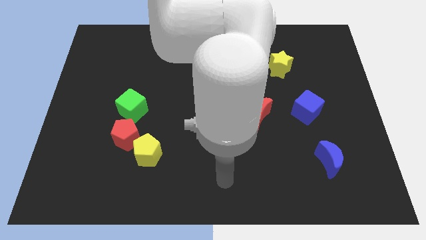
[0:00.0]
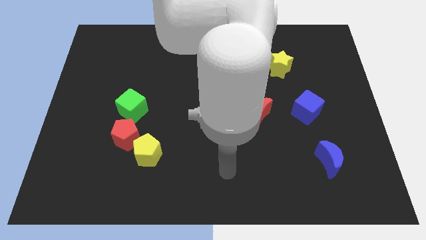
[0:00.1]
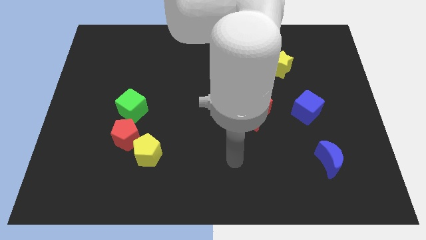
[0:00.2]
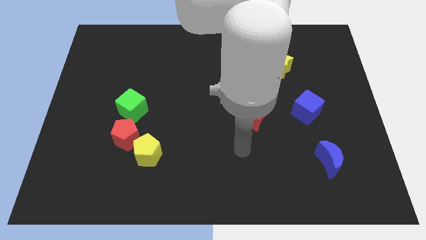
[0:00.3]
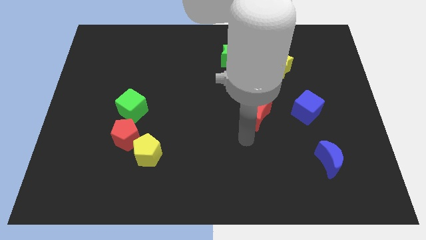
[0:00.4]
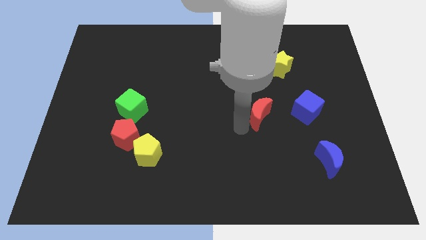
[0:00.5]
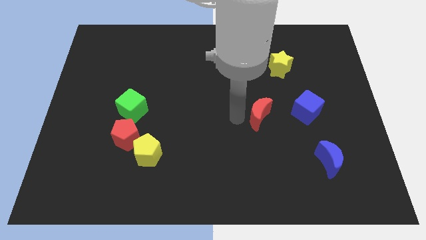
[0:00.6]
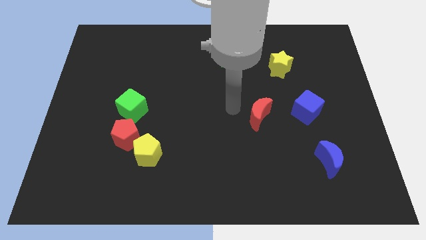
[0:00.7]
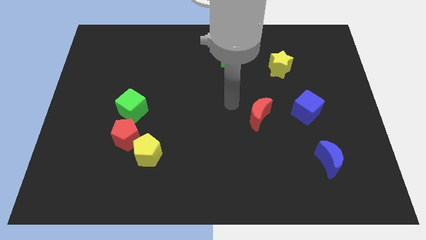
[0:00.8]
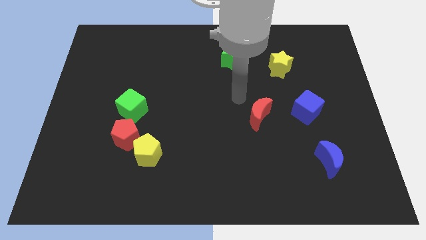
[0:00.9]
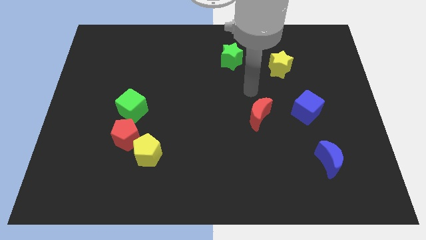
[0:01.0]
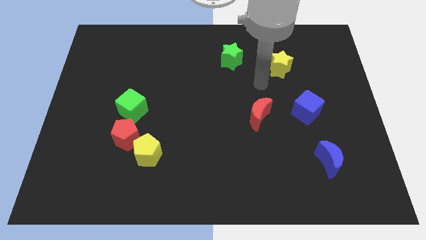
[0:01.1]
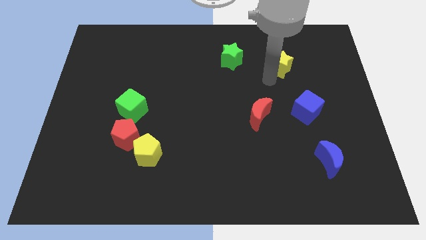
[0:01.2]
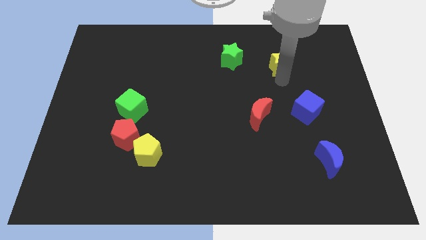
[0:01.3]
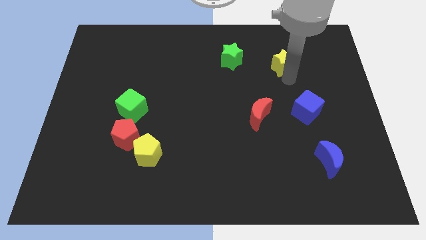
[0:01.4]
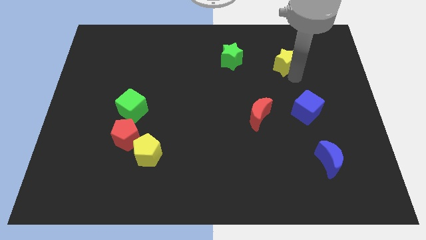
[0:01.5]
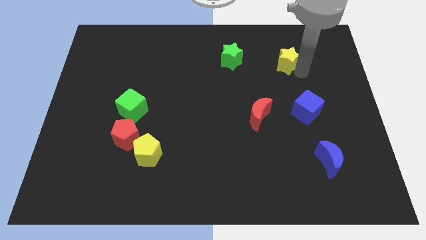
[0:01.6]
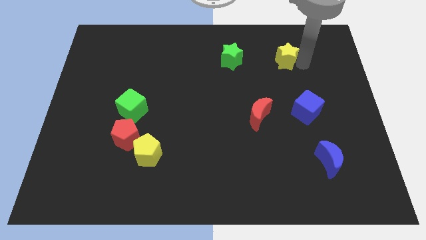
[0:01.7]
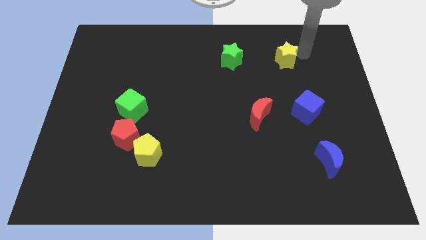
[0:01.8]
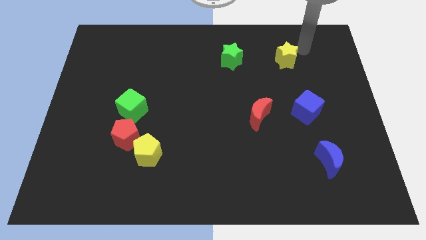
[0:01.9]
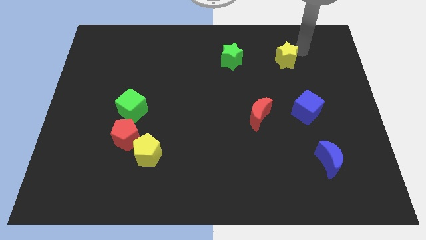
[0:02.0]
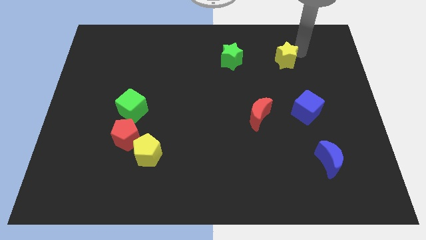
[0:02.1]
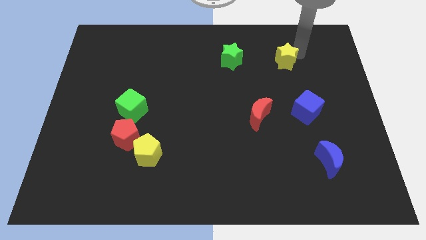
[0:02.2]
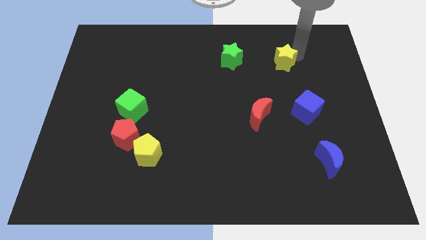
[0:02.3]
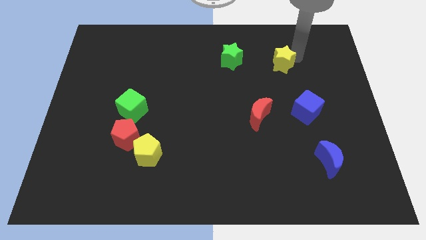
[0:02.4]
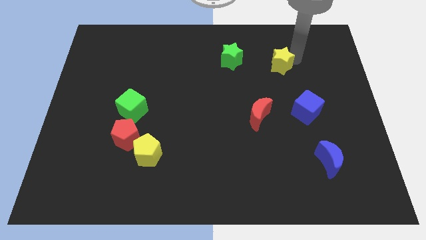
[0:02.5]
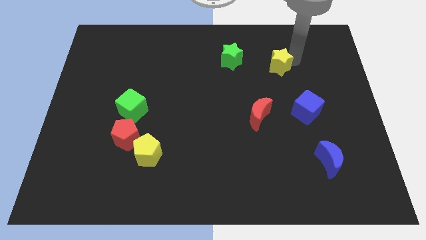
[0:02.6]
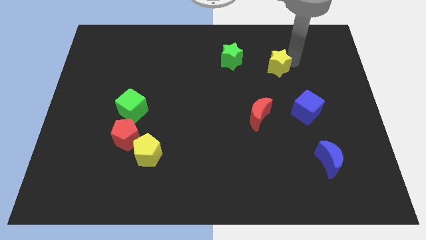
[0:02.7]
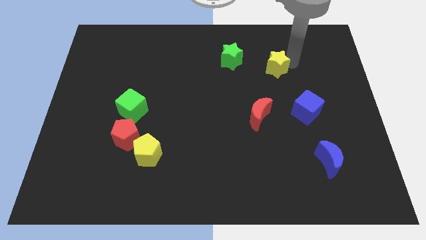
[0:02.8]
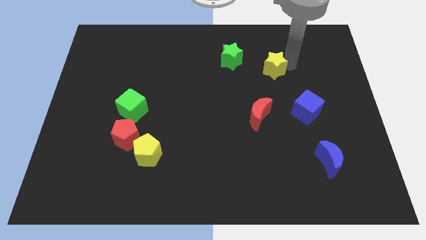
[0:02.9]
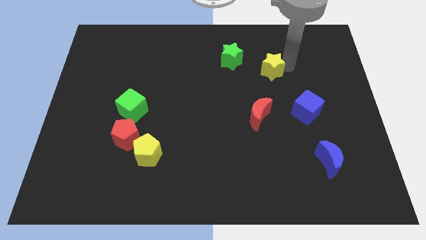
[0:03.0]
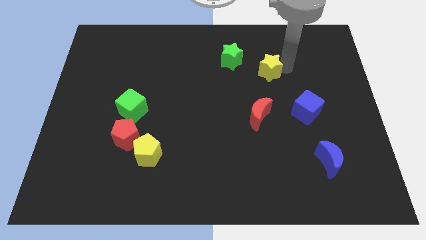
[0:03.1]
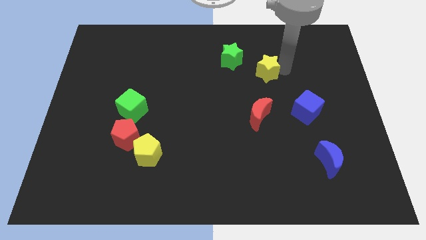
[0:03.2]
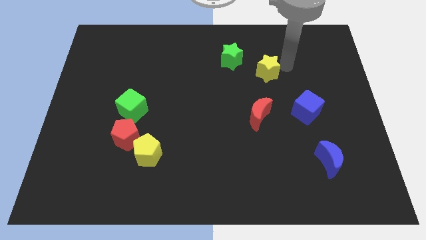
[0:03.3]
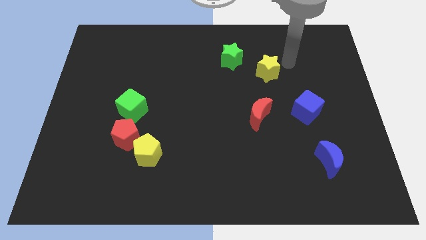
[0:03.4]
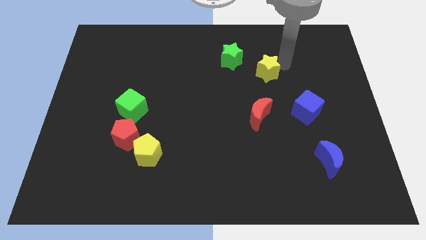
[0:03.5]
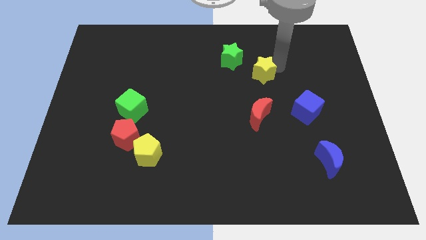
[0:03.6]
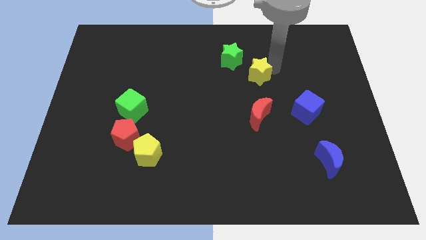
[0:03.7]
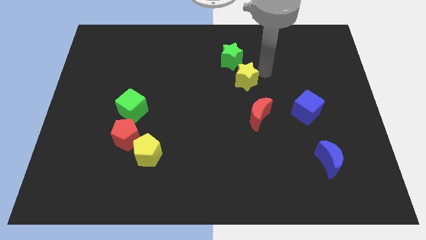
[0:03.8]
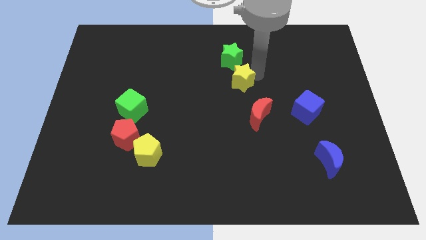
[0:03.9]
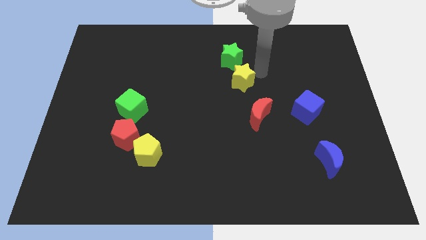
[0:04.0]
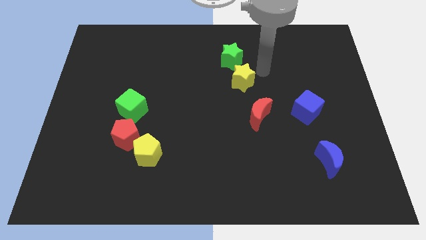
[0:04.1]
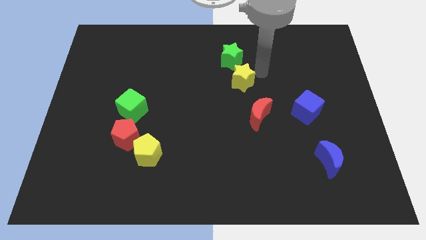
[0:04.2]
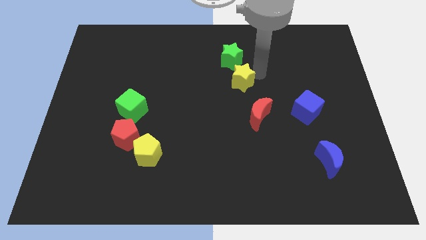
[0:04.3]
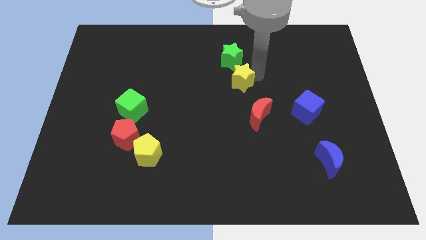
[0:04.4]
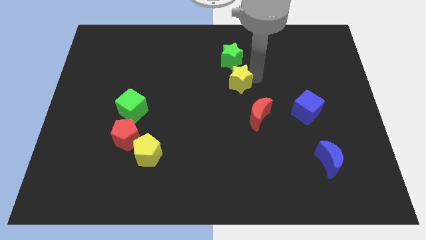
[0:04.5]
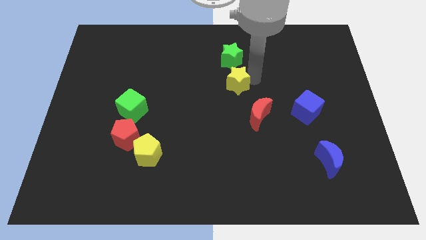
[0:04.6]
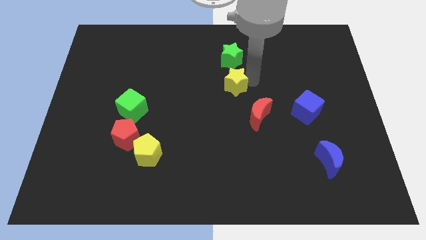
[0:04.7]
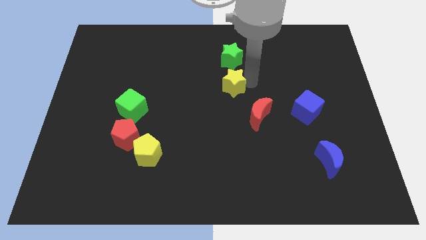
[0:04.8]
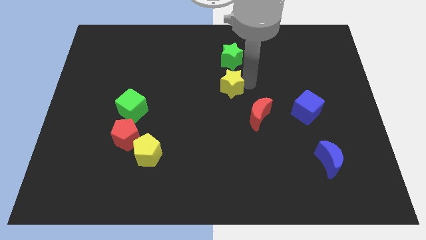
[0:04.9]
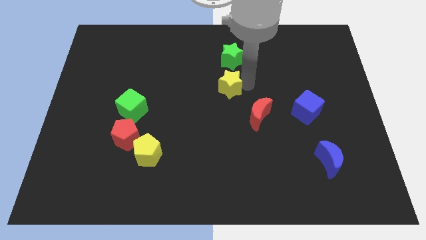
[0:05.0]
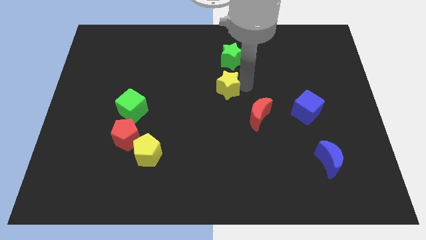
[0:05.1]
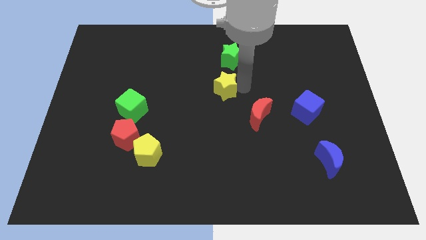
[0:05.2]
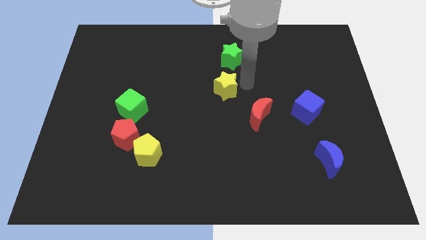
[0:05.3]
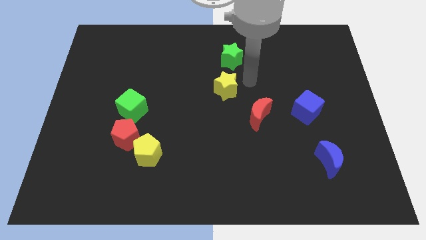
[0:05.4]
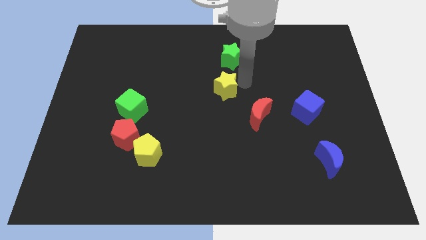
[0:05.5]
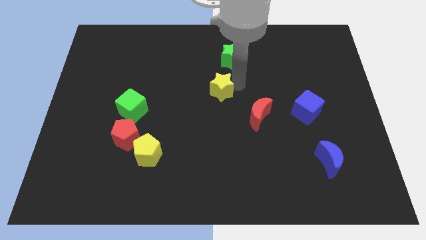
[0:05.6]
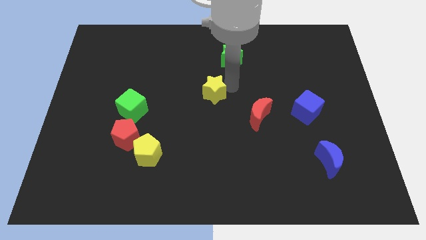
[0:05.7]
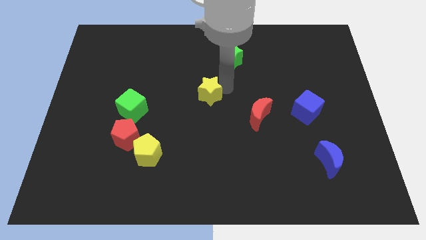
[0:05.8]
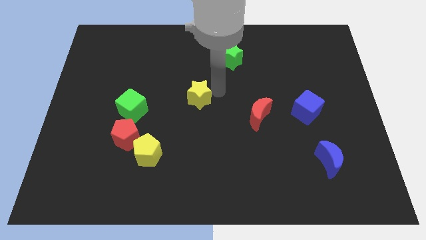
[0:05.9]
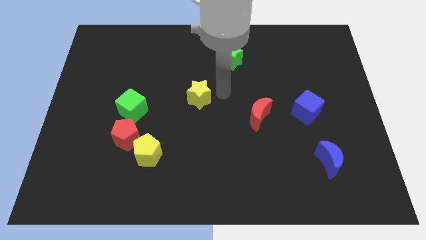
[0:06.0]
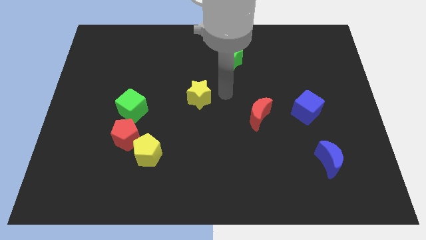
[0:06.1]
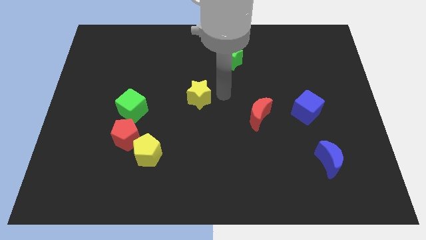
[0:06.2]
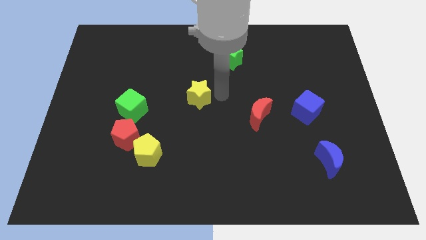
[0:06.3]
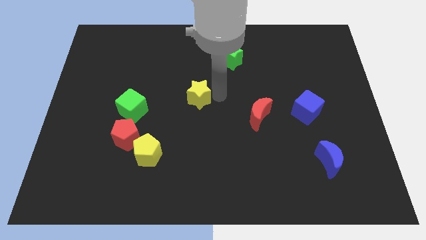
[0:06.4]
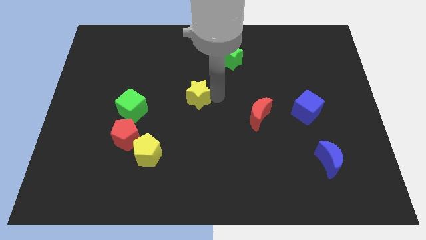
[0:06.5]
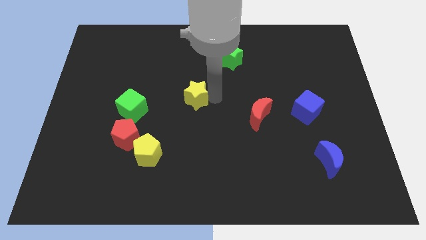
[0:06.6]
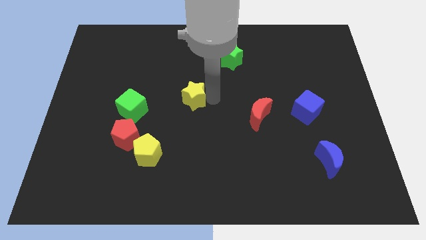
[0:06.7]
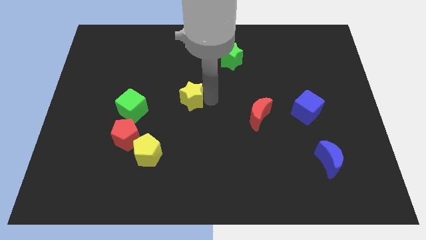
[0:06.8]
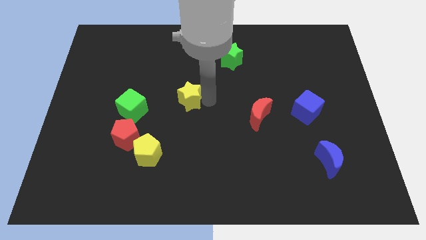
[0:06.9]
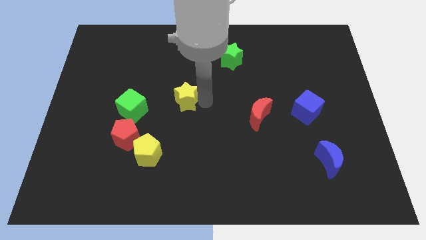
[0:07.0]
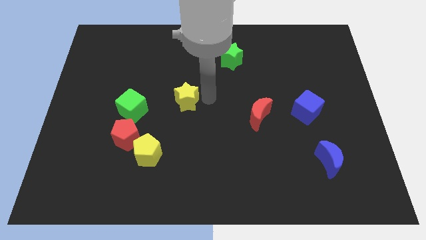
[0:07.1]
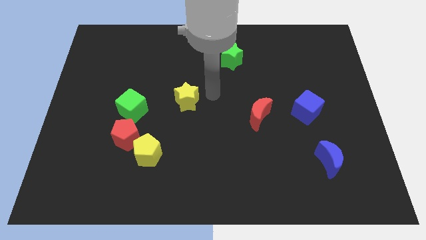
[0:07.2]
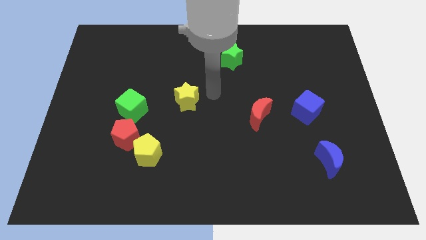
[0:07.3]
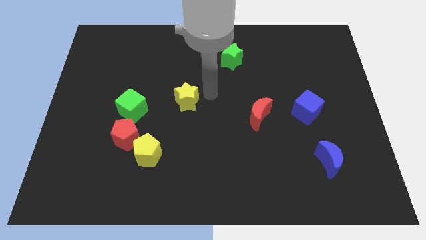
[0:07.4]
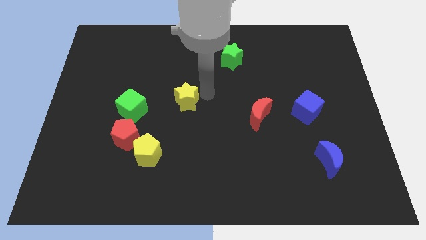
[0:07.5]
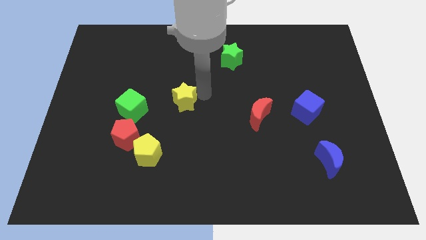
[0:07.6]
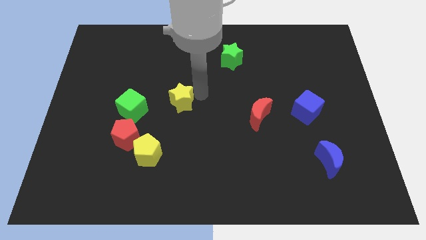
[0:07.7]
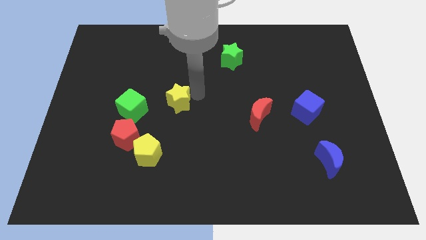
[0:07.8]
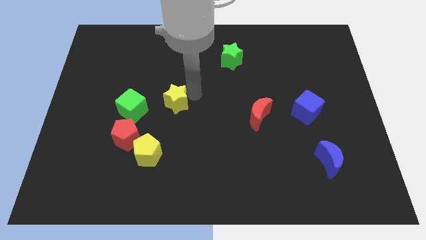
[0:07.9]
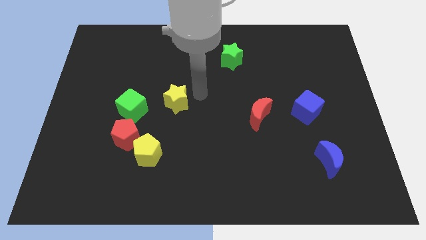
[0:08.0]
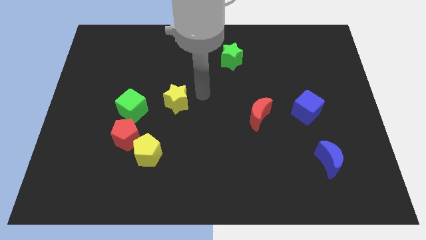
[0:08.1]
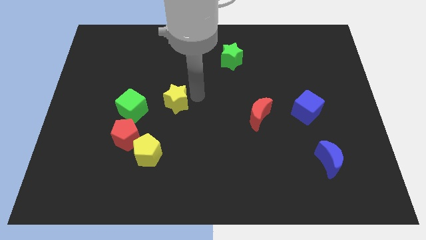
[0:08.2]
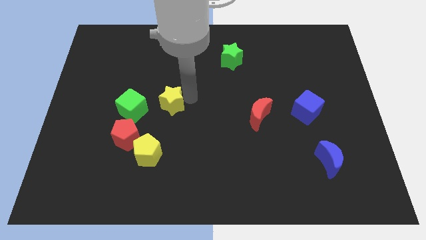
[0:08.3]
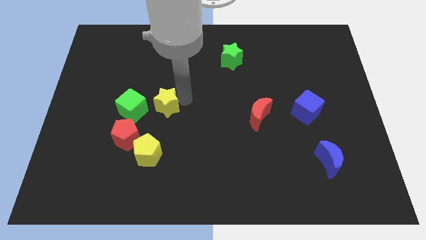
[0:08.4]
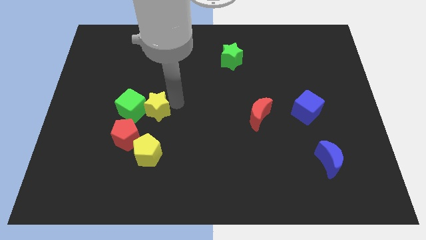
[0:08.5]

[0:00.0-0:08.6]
slide the yellow star next to the green cube
